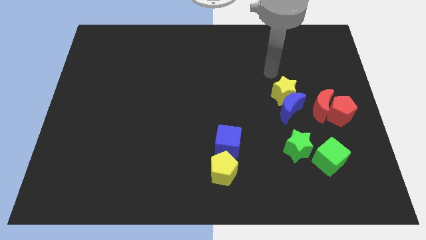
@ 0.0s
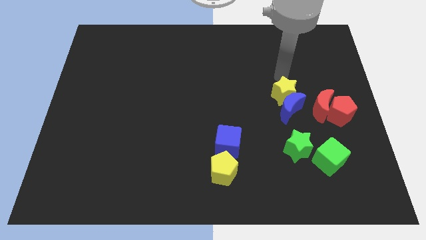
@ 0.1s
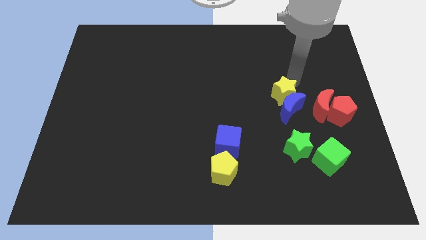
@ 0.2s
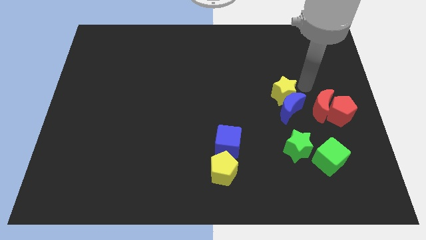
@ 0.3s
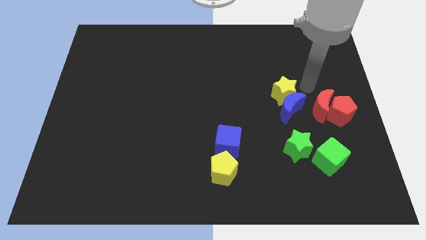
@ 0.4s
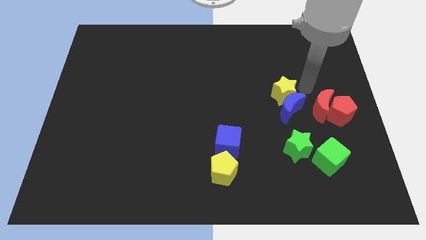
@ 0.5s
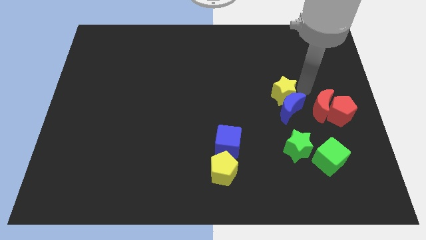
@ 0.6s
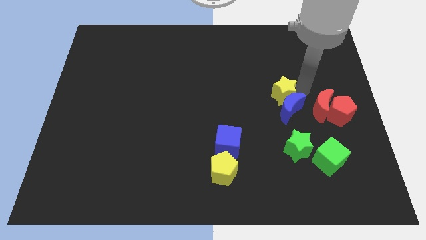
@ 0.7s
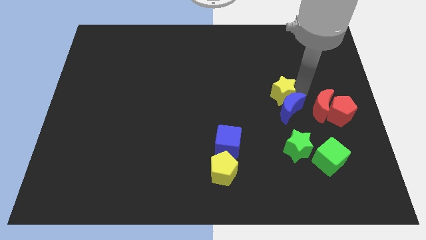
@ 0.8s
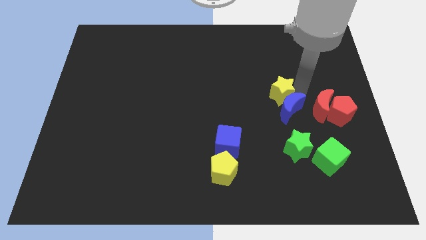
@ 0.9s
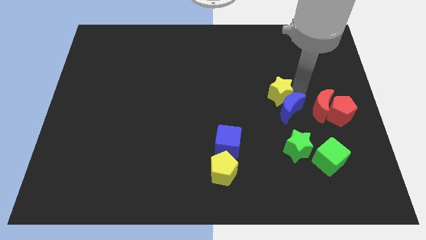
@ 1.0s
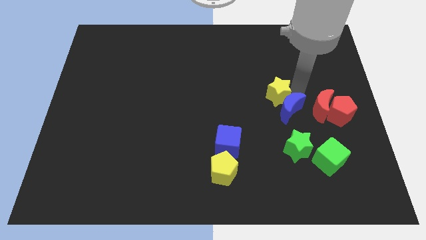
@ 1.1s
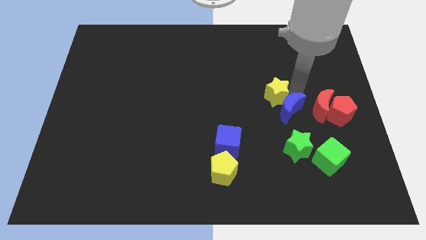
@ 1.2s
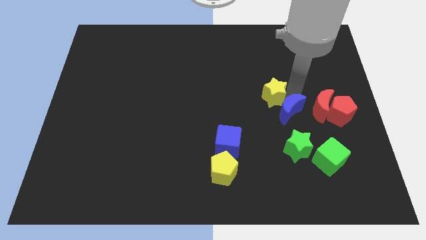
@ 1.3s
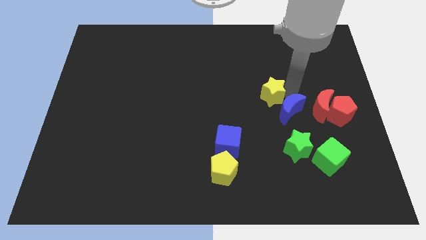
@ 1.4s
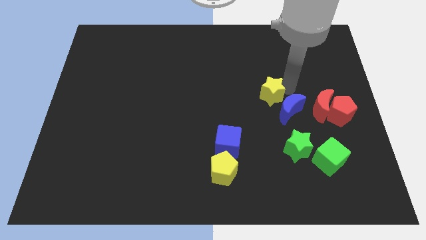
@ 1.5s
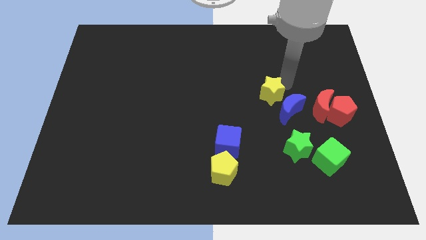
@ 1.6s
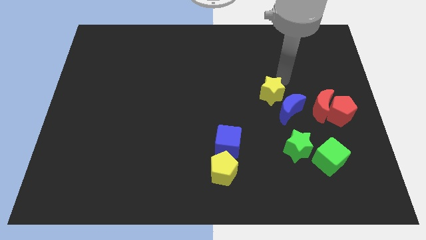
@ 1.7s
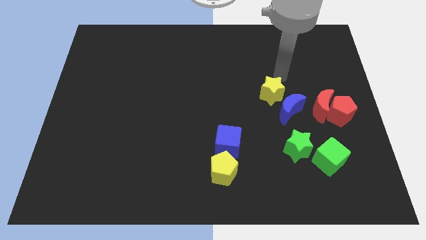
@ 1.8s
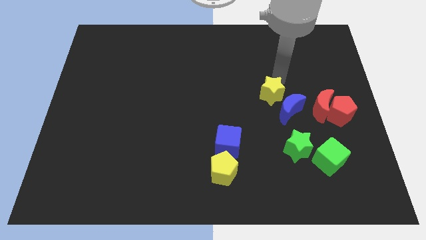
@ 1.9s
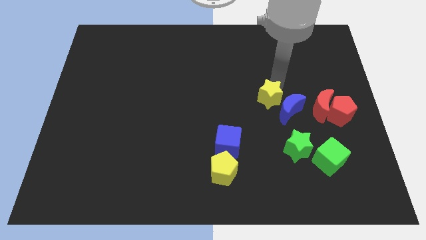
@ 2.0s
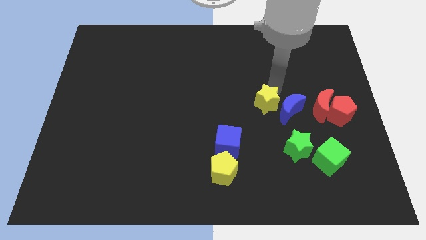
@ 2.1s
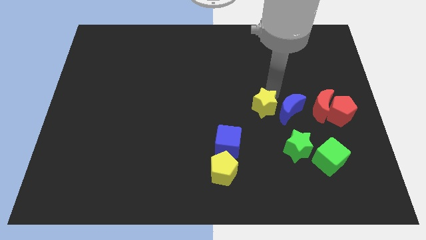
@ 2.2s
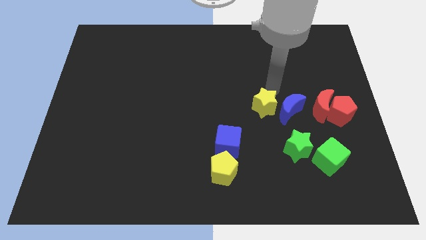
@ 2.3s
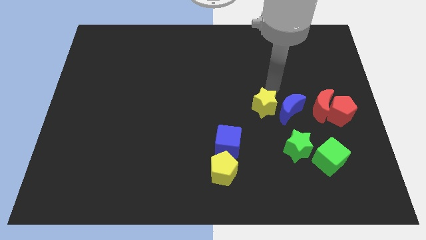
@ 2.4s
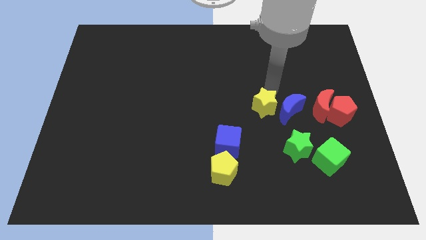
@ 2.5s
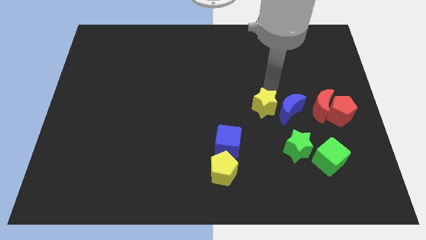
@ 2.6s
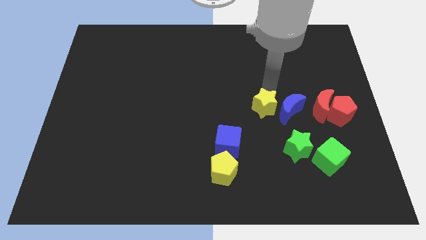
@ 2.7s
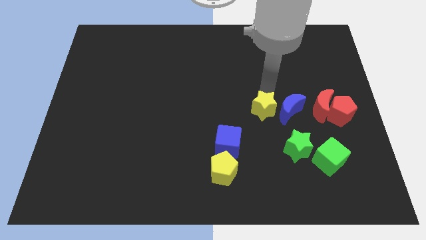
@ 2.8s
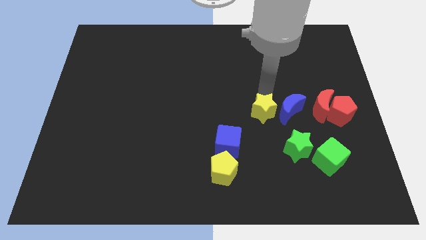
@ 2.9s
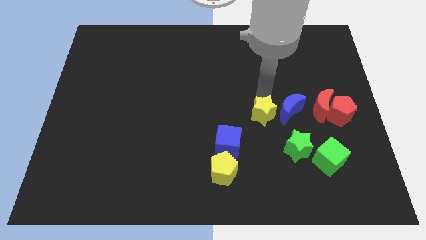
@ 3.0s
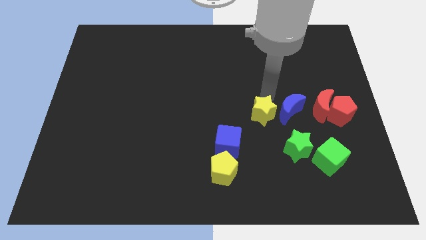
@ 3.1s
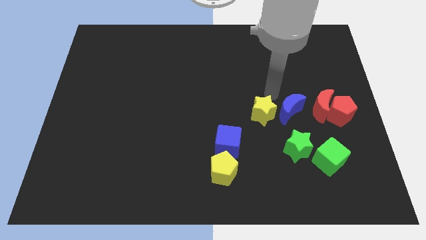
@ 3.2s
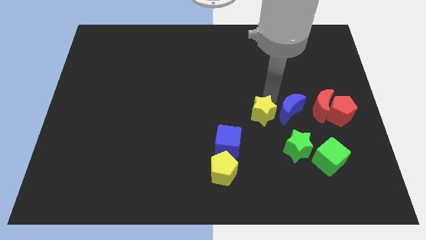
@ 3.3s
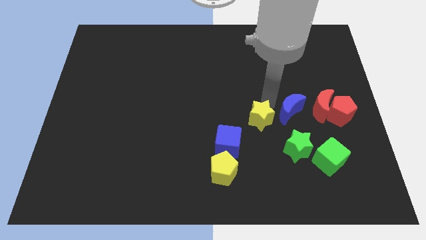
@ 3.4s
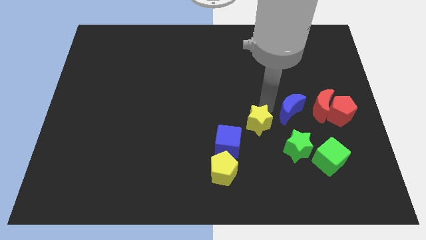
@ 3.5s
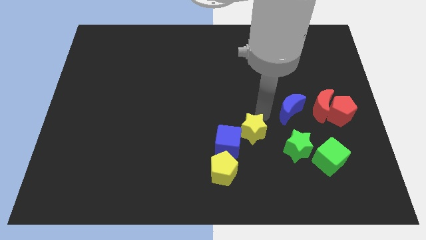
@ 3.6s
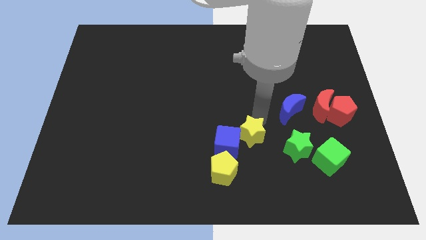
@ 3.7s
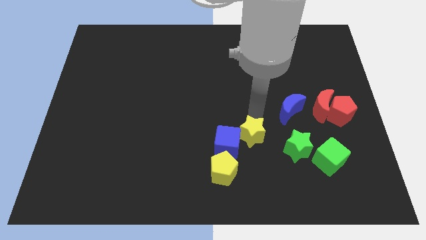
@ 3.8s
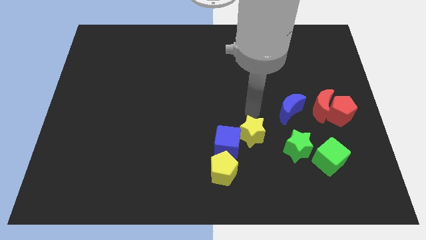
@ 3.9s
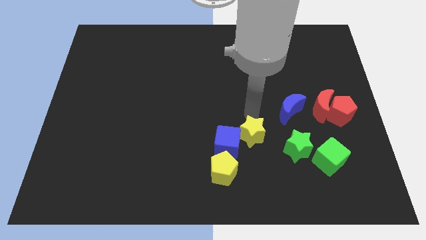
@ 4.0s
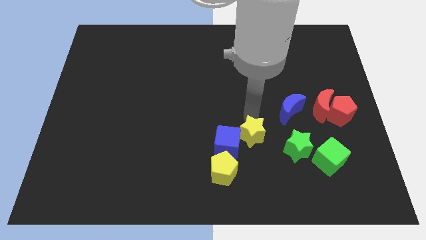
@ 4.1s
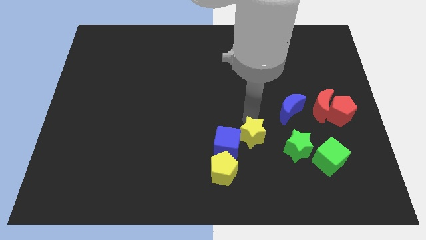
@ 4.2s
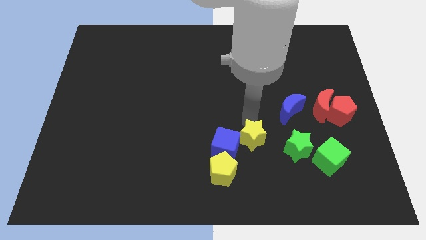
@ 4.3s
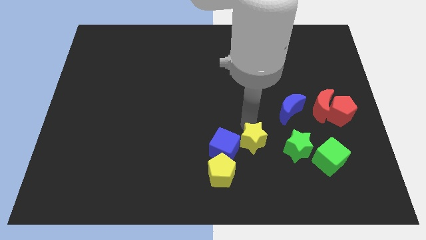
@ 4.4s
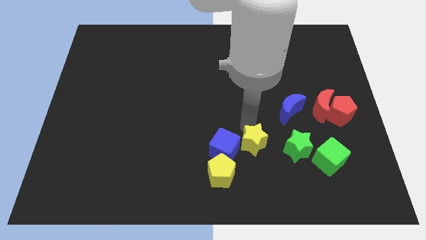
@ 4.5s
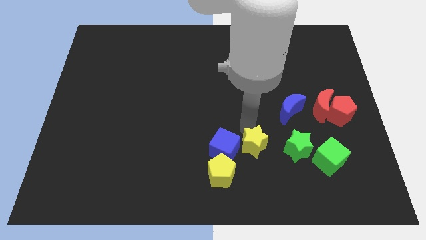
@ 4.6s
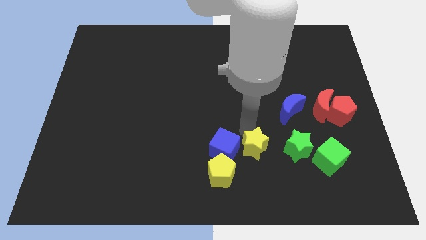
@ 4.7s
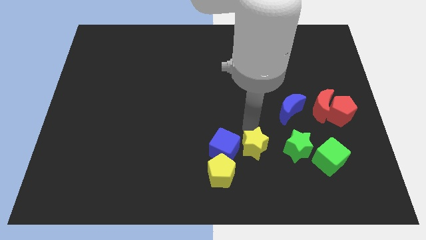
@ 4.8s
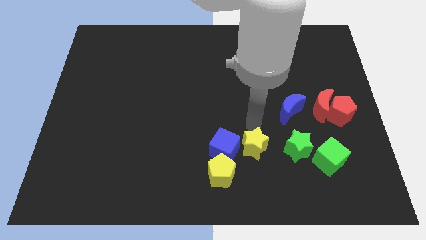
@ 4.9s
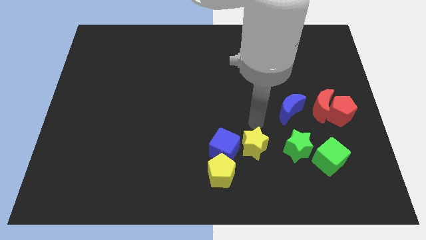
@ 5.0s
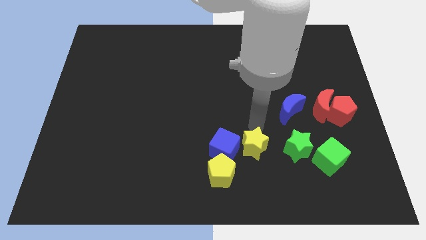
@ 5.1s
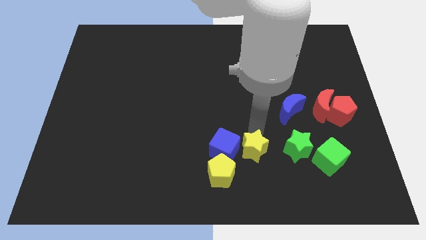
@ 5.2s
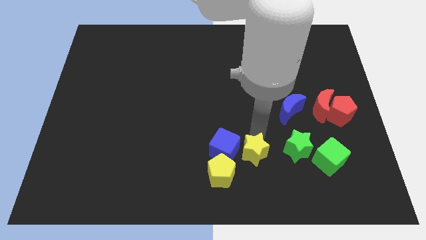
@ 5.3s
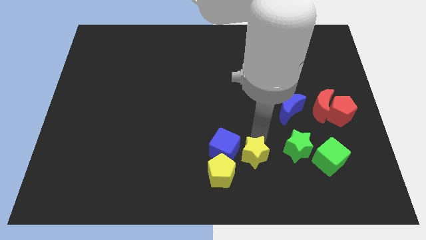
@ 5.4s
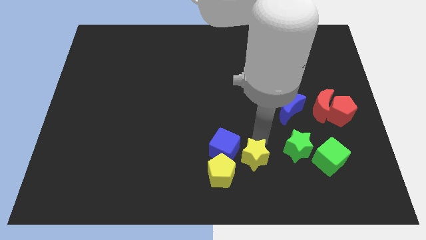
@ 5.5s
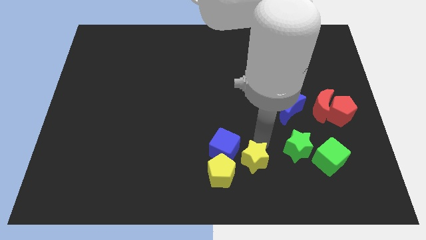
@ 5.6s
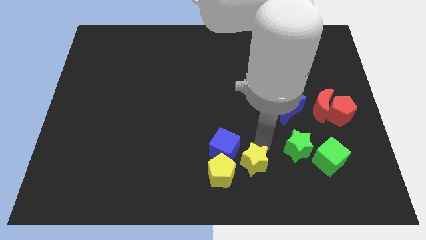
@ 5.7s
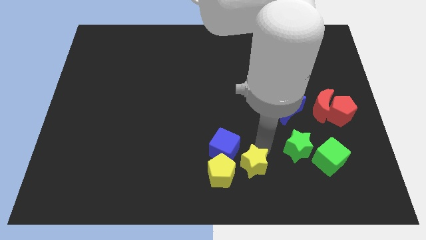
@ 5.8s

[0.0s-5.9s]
push the yellow star to the bottom side
